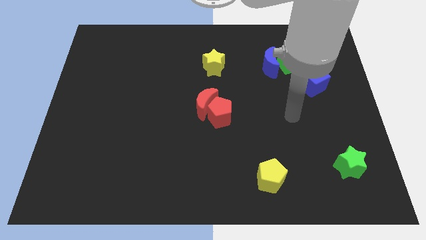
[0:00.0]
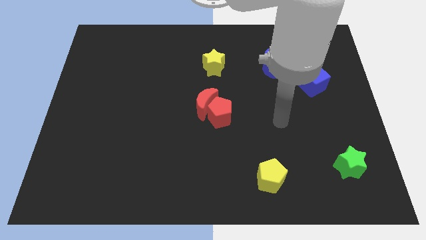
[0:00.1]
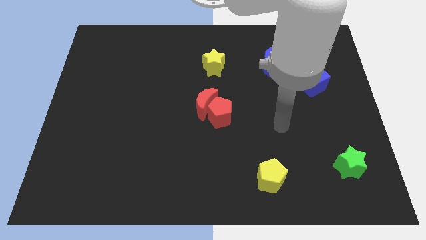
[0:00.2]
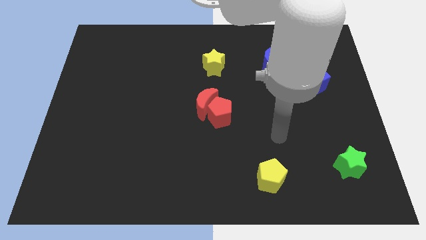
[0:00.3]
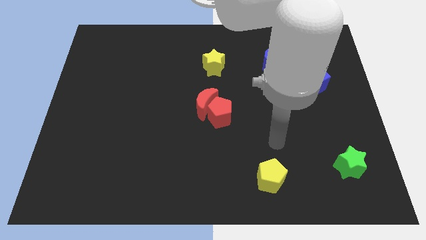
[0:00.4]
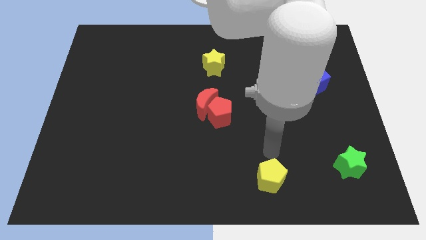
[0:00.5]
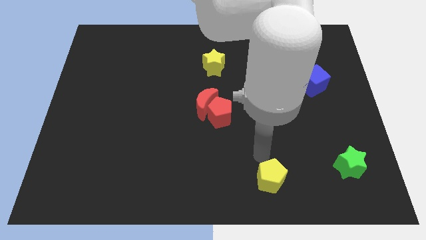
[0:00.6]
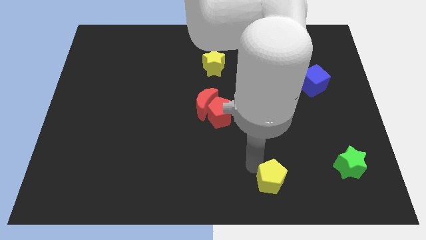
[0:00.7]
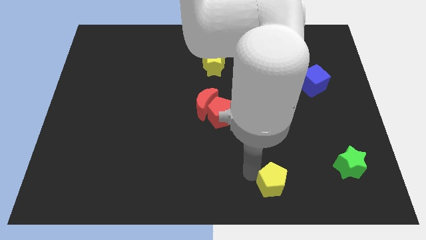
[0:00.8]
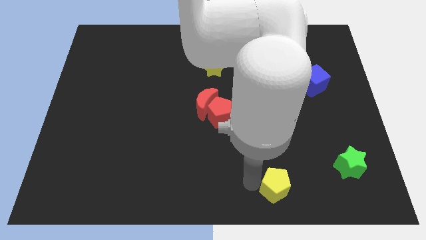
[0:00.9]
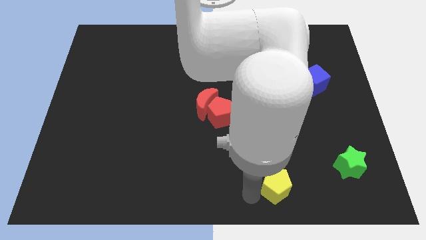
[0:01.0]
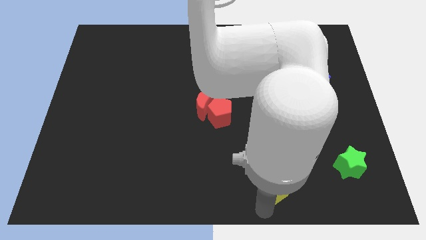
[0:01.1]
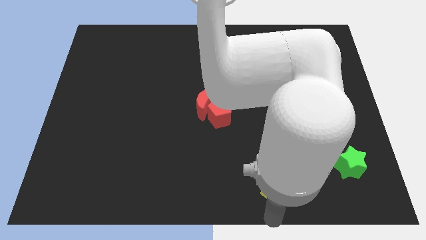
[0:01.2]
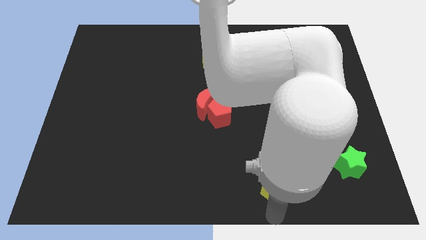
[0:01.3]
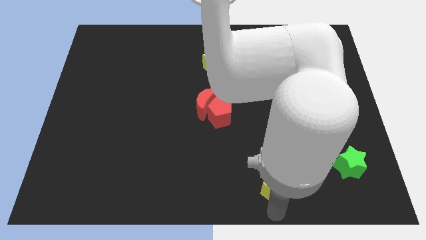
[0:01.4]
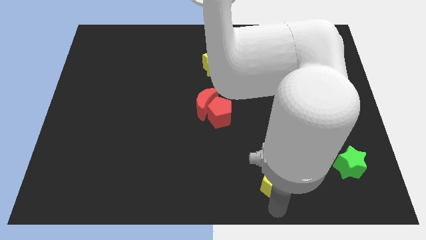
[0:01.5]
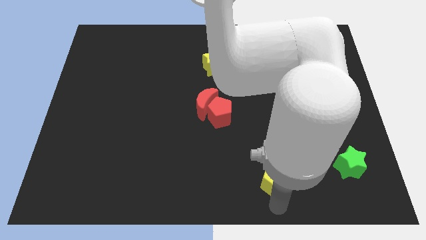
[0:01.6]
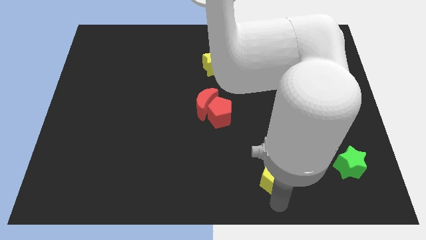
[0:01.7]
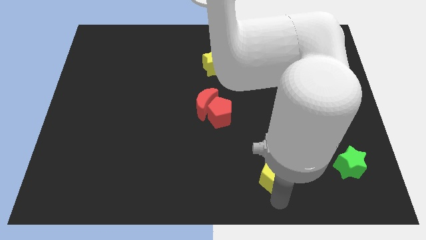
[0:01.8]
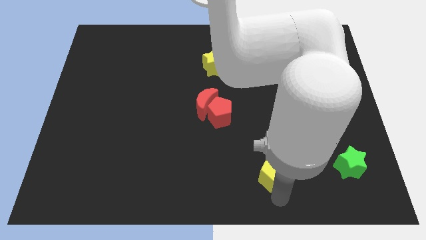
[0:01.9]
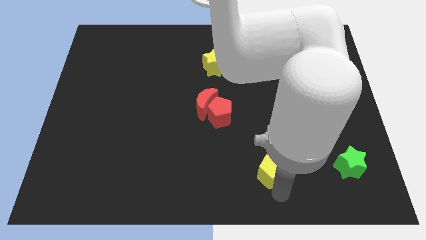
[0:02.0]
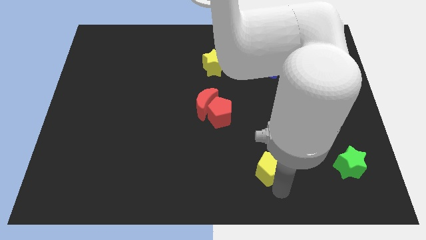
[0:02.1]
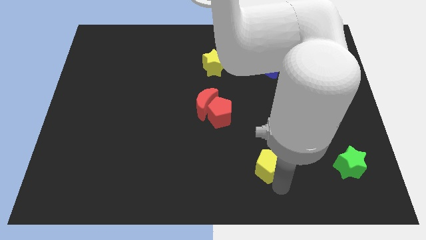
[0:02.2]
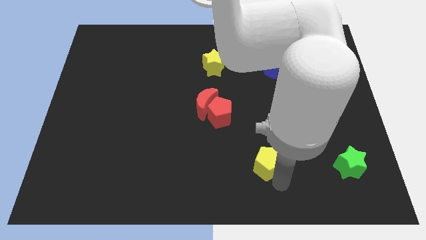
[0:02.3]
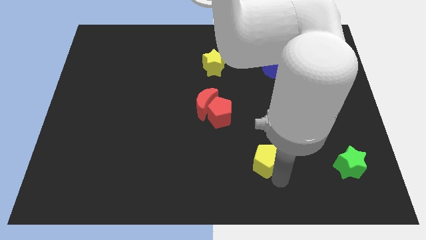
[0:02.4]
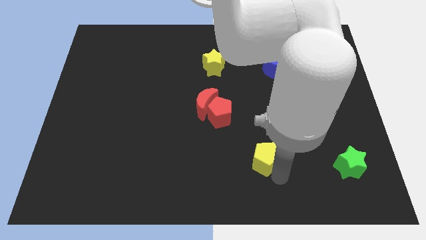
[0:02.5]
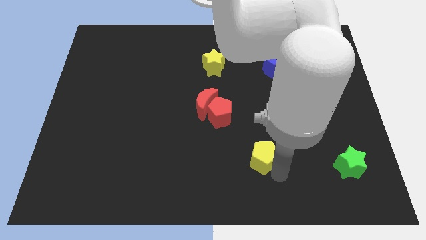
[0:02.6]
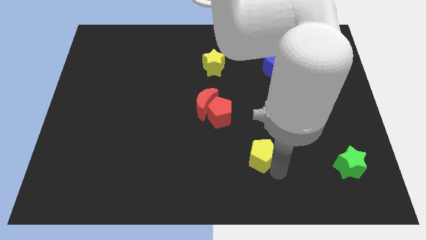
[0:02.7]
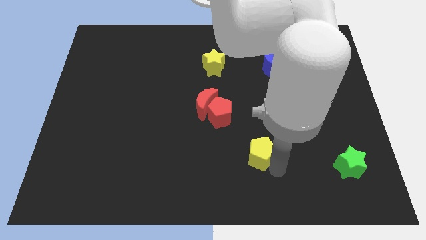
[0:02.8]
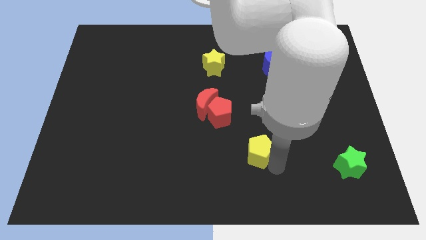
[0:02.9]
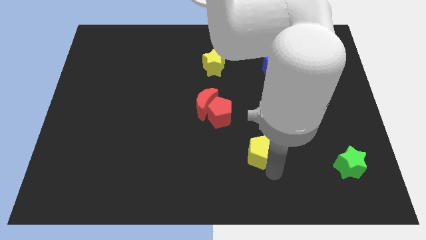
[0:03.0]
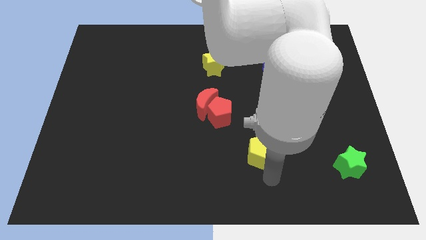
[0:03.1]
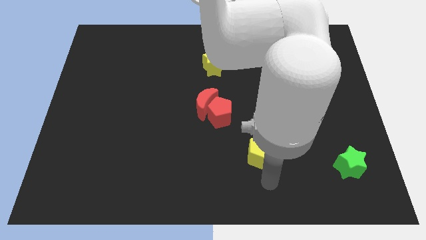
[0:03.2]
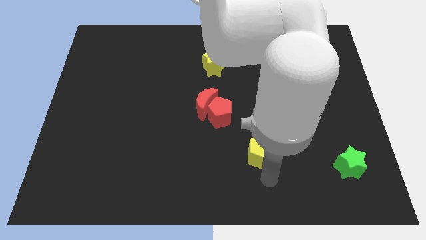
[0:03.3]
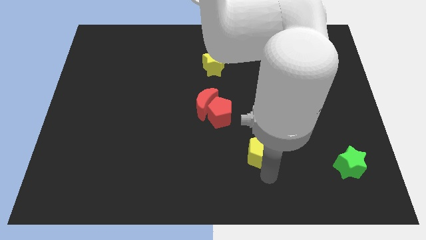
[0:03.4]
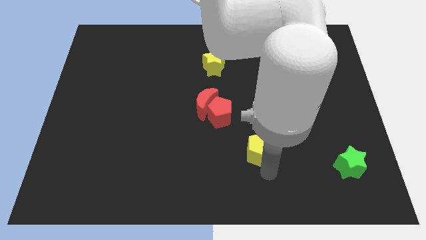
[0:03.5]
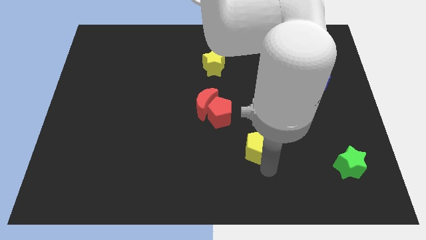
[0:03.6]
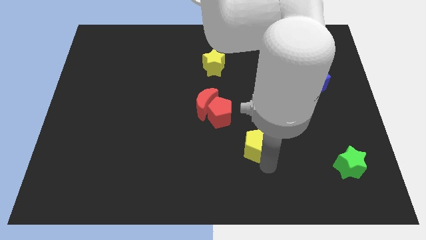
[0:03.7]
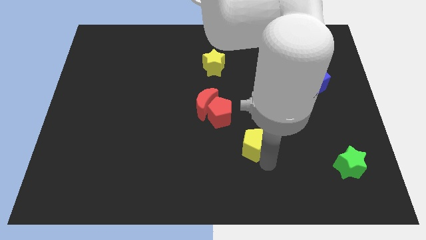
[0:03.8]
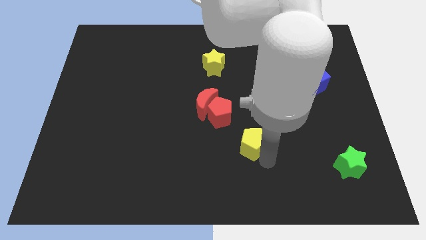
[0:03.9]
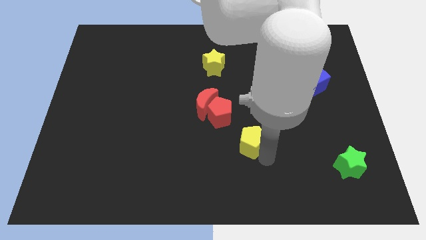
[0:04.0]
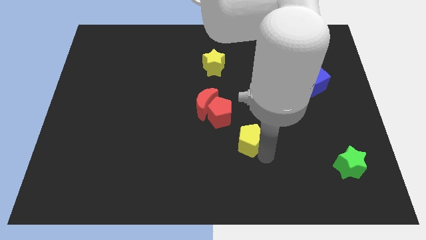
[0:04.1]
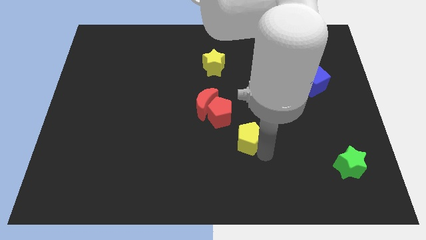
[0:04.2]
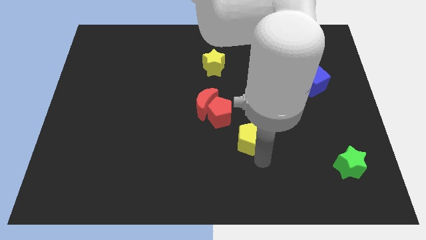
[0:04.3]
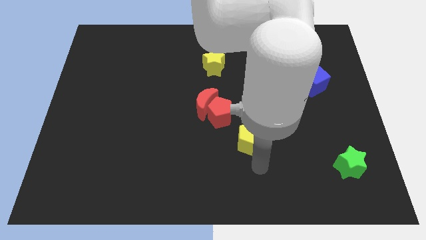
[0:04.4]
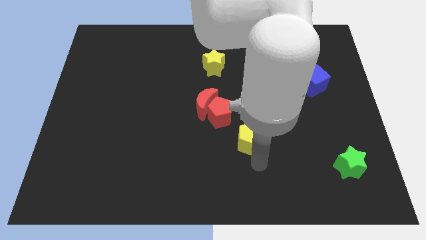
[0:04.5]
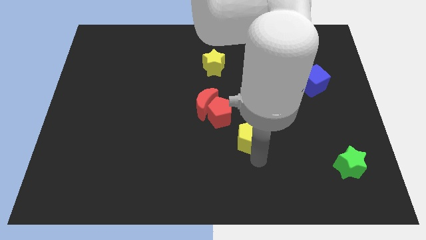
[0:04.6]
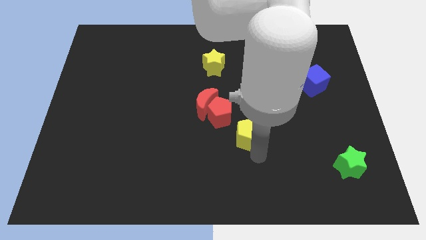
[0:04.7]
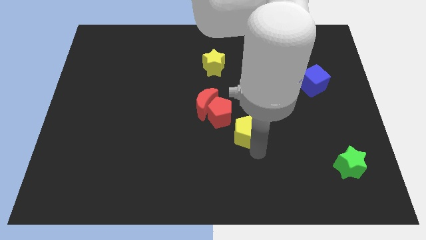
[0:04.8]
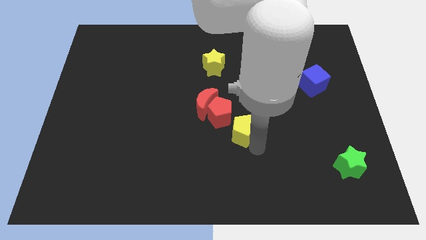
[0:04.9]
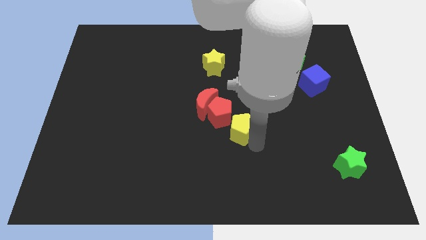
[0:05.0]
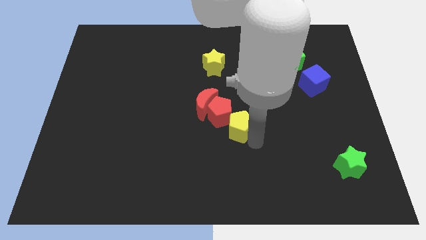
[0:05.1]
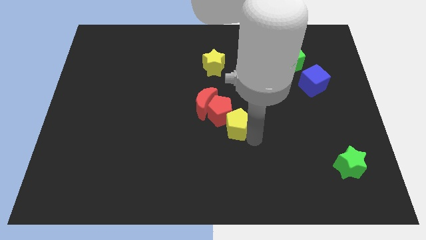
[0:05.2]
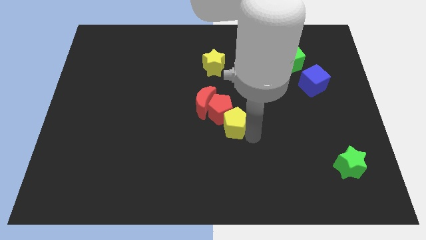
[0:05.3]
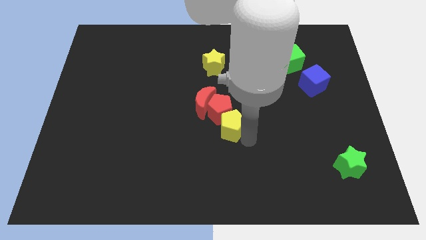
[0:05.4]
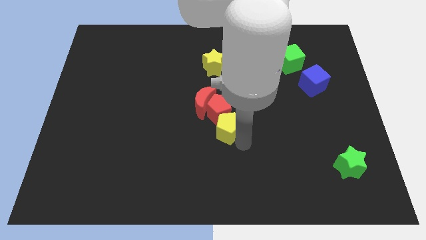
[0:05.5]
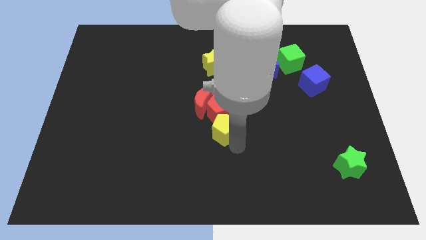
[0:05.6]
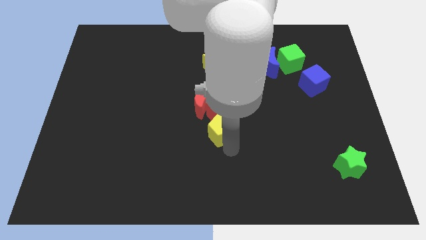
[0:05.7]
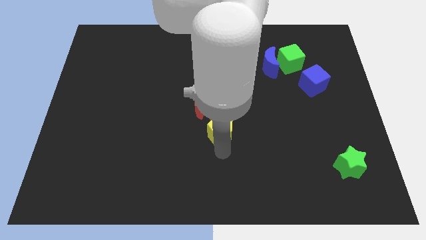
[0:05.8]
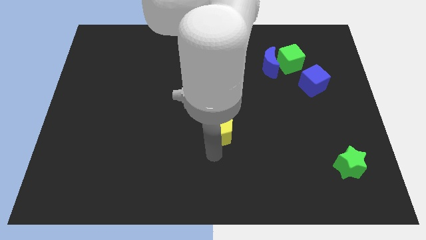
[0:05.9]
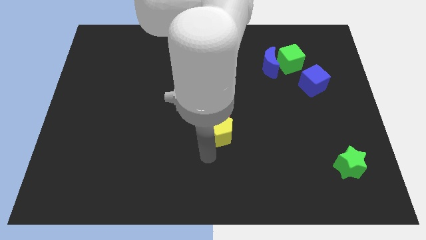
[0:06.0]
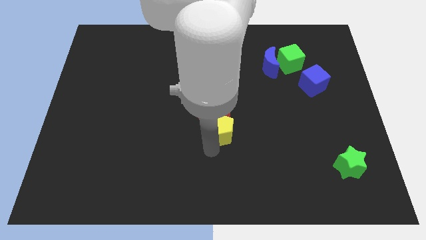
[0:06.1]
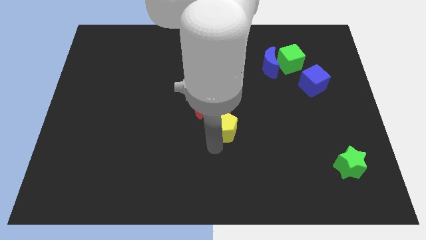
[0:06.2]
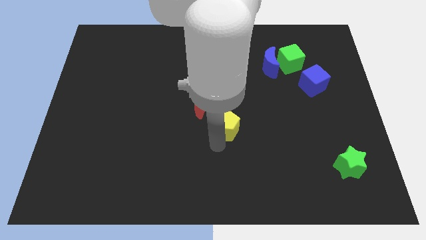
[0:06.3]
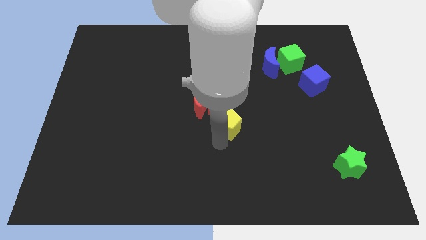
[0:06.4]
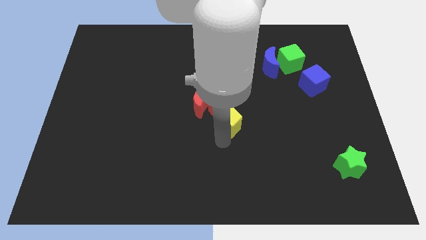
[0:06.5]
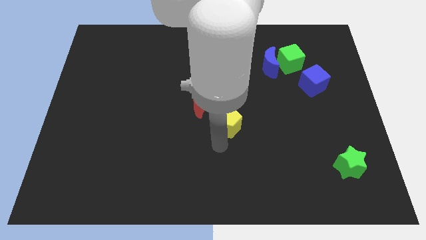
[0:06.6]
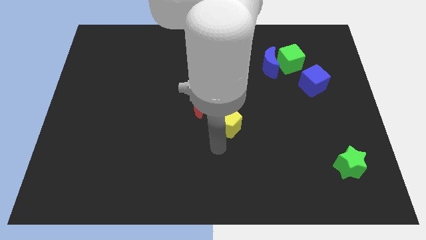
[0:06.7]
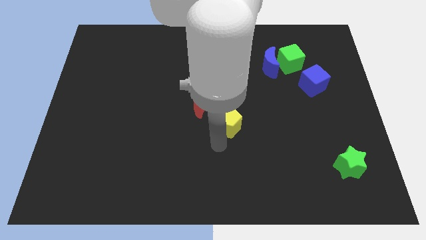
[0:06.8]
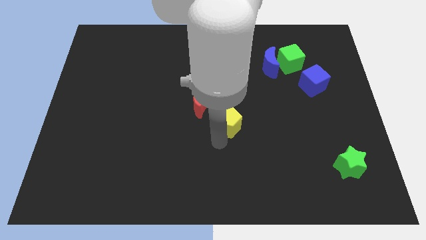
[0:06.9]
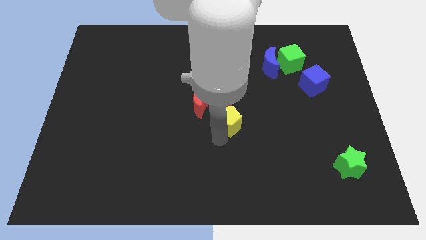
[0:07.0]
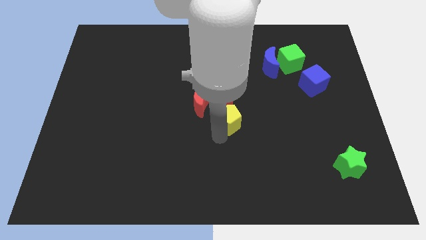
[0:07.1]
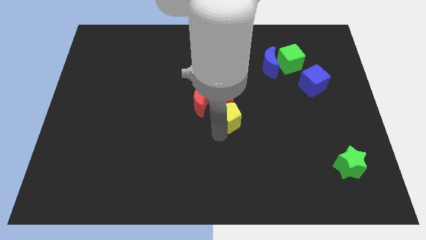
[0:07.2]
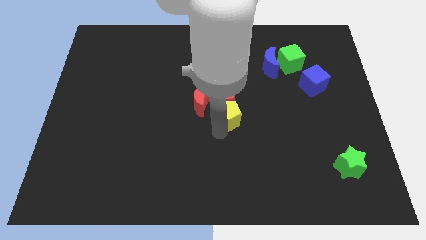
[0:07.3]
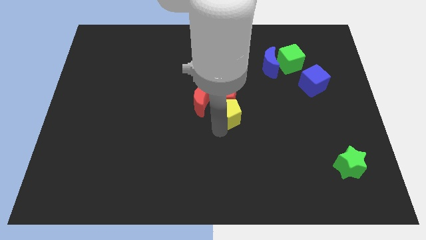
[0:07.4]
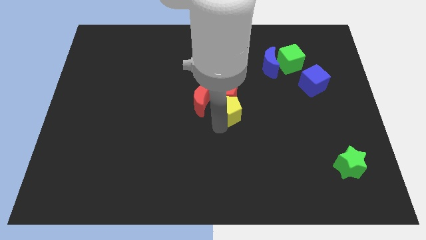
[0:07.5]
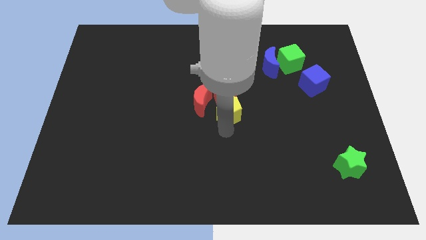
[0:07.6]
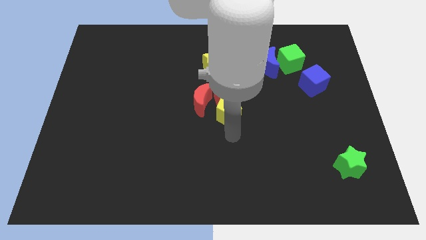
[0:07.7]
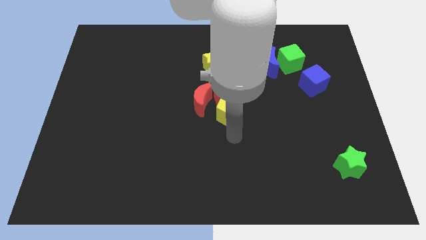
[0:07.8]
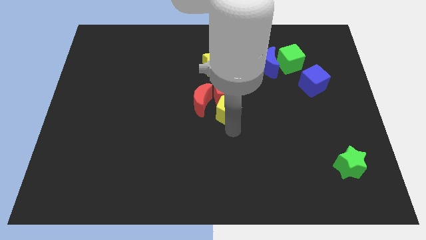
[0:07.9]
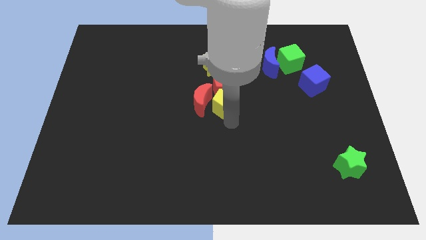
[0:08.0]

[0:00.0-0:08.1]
move the yellow pentagon diagonally up and to the right of the red moon
